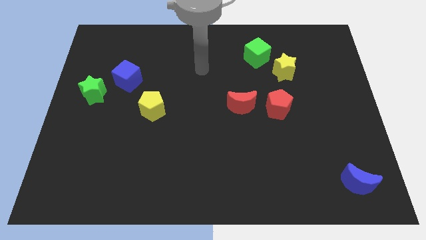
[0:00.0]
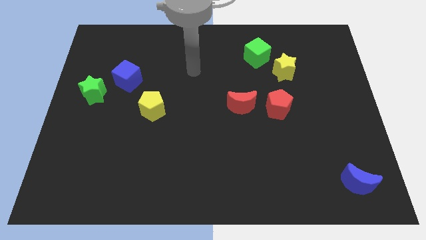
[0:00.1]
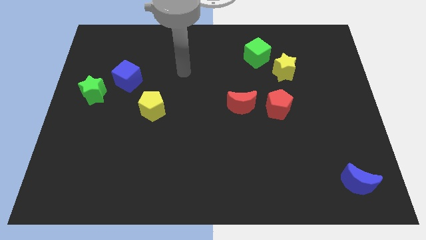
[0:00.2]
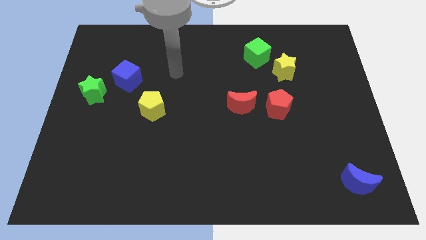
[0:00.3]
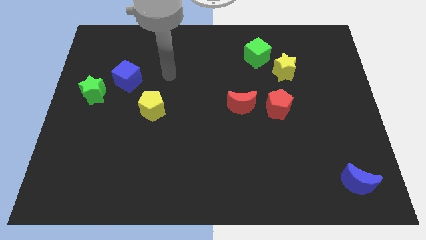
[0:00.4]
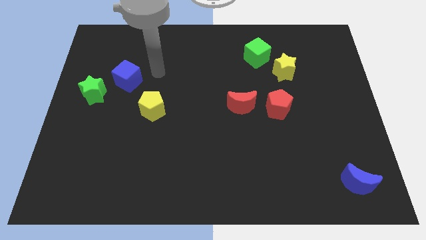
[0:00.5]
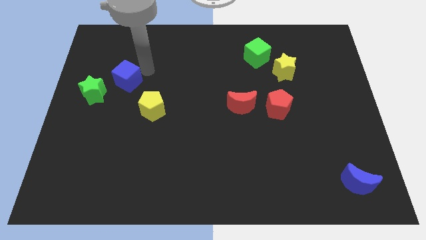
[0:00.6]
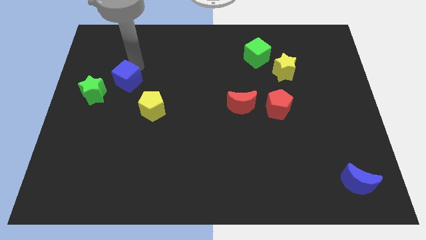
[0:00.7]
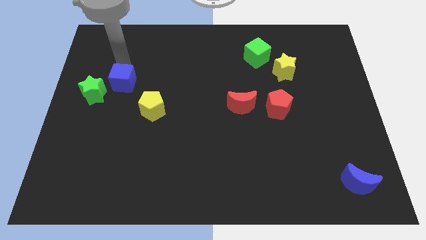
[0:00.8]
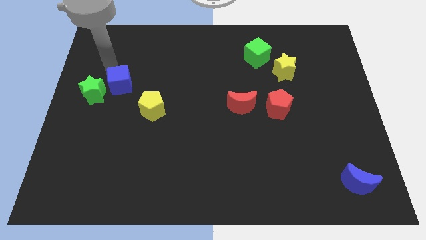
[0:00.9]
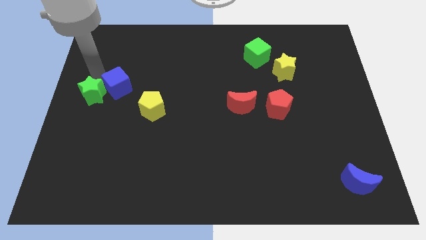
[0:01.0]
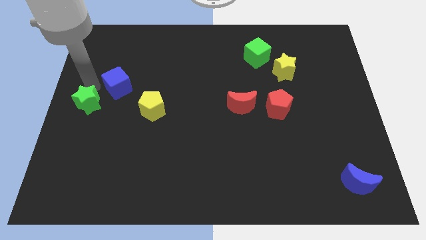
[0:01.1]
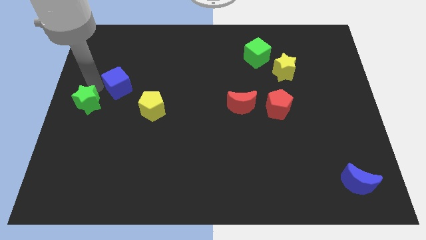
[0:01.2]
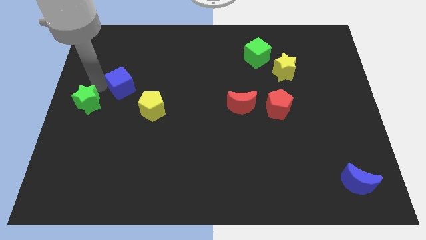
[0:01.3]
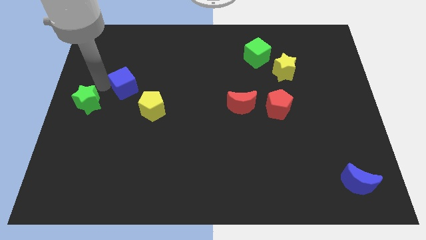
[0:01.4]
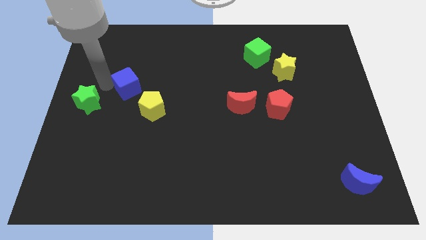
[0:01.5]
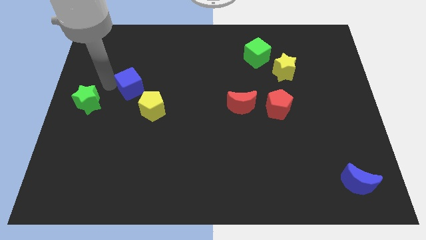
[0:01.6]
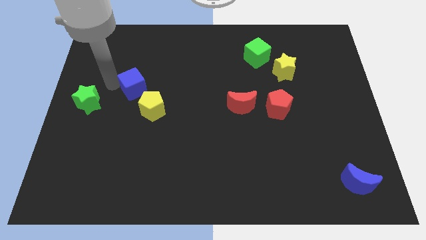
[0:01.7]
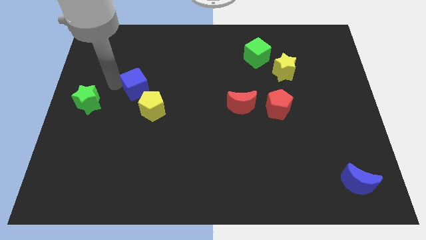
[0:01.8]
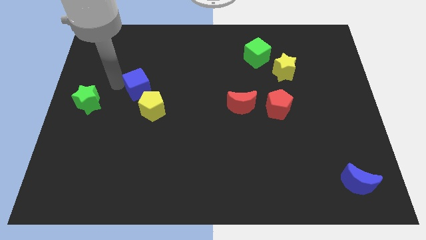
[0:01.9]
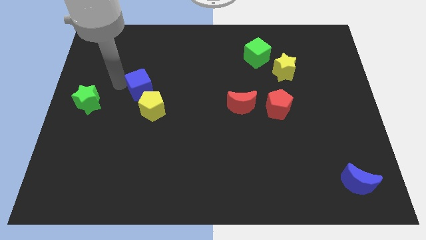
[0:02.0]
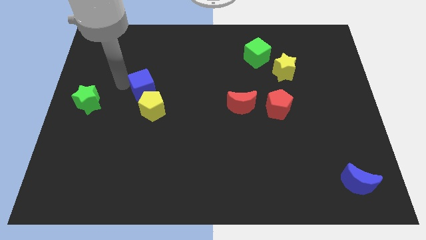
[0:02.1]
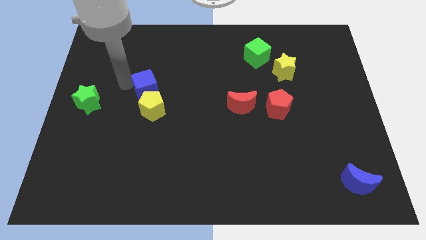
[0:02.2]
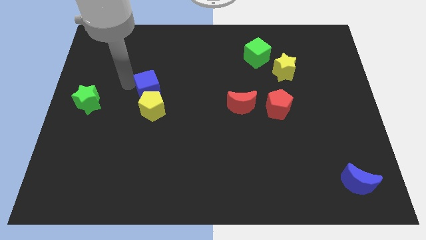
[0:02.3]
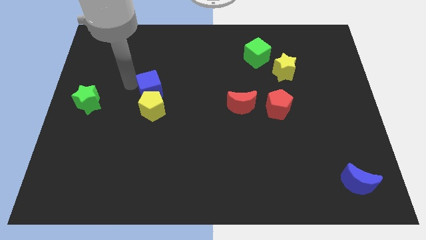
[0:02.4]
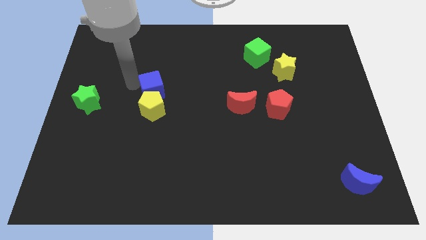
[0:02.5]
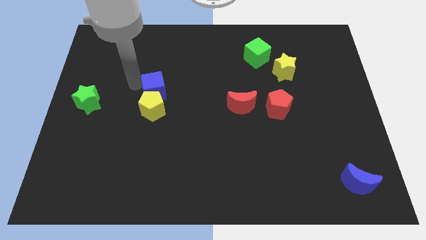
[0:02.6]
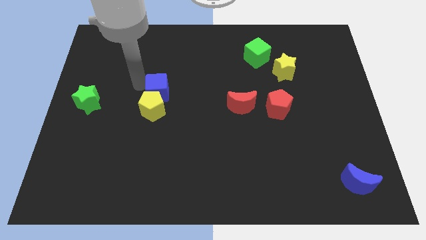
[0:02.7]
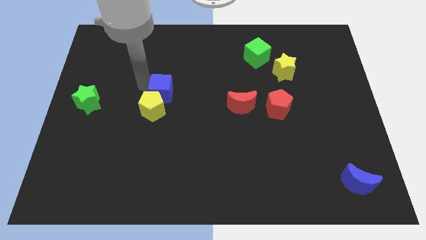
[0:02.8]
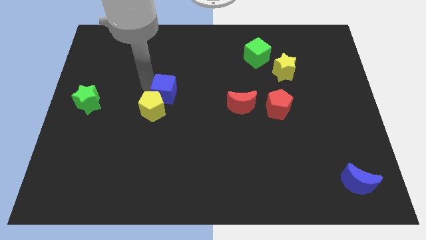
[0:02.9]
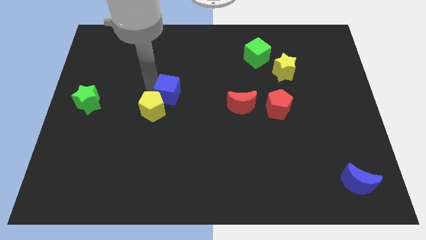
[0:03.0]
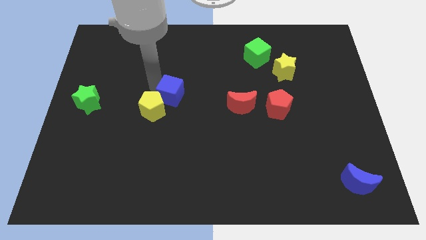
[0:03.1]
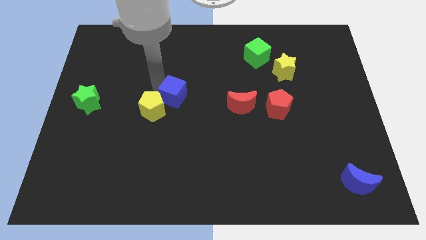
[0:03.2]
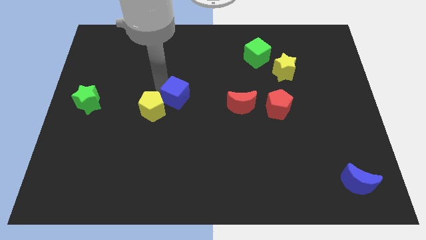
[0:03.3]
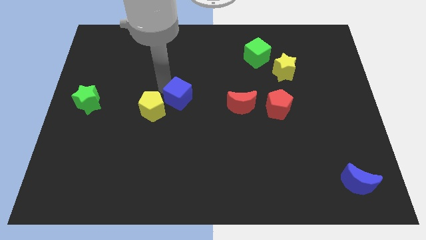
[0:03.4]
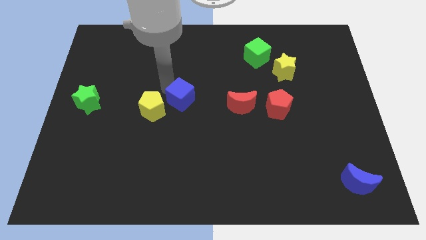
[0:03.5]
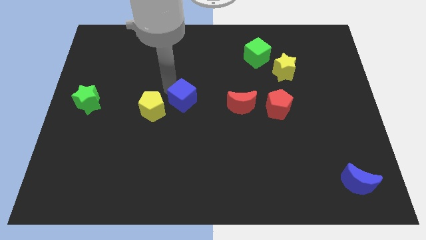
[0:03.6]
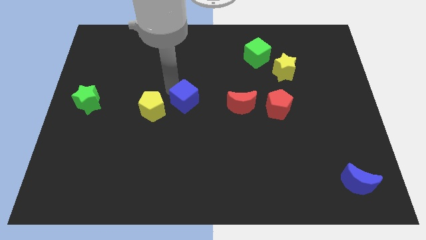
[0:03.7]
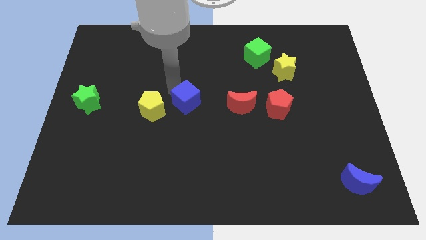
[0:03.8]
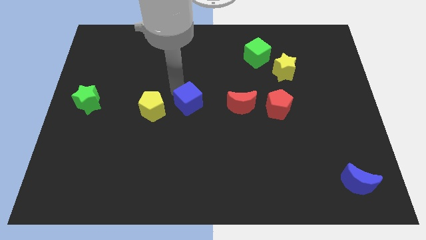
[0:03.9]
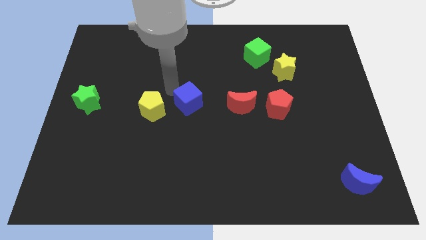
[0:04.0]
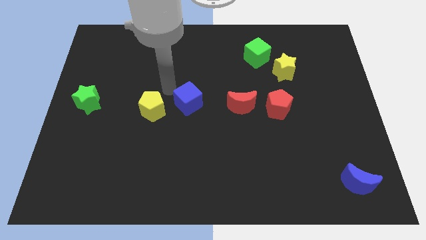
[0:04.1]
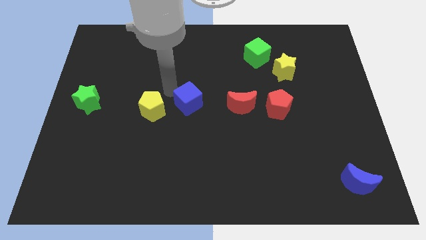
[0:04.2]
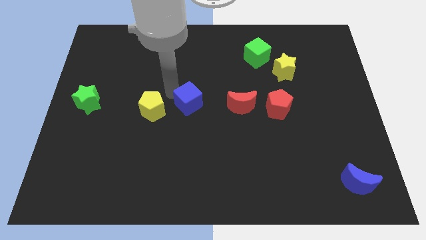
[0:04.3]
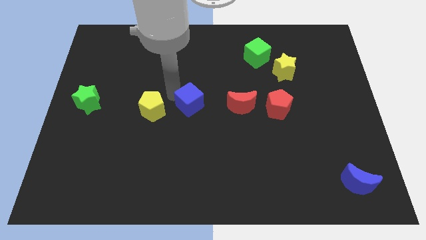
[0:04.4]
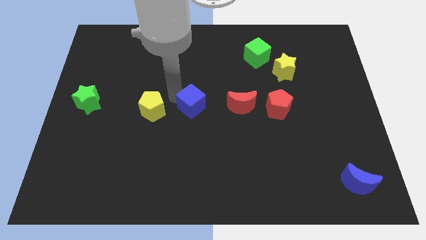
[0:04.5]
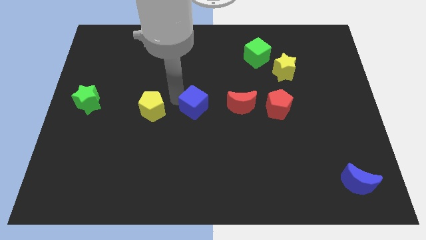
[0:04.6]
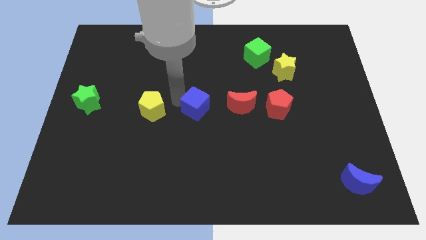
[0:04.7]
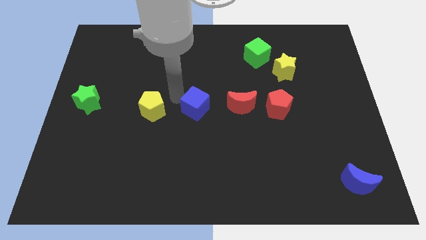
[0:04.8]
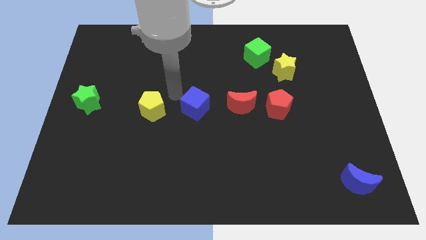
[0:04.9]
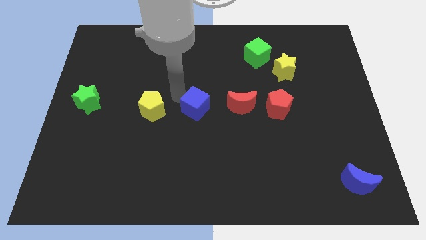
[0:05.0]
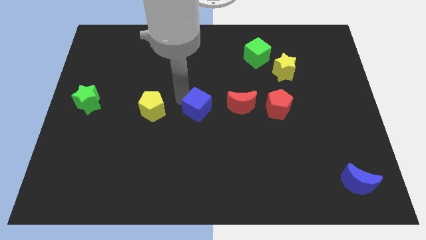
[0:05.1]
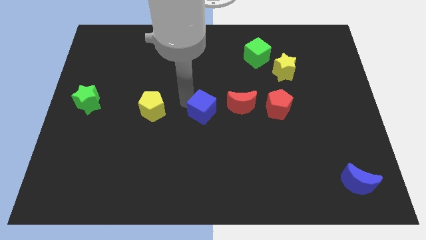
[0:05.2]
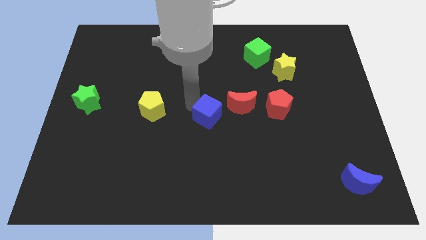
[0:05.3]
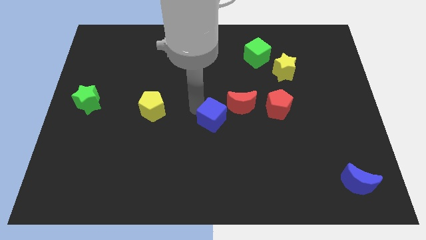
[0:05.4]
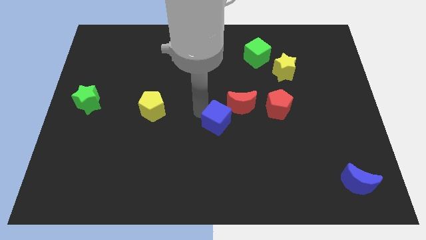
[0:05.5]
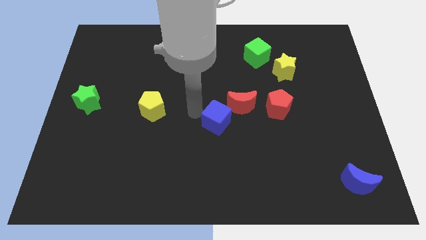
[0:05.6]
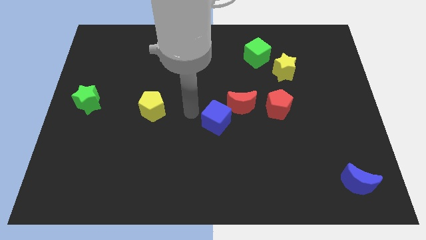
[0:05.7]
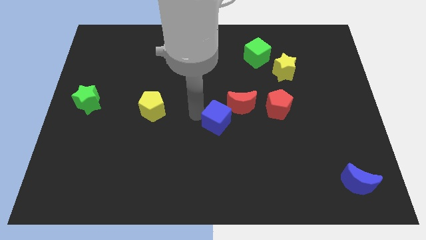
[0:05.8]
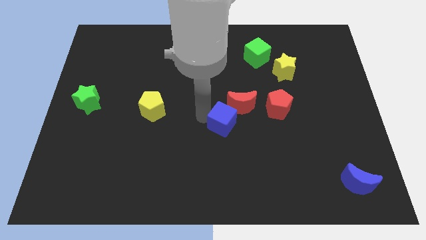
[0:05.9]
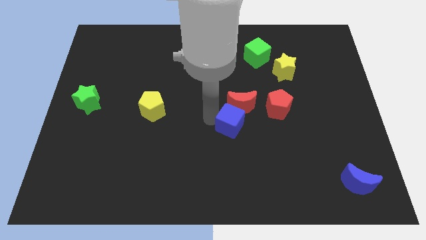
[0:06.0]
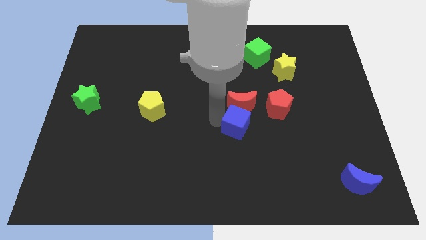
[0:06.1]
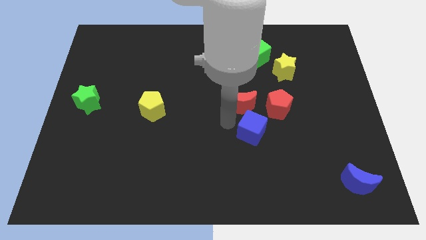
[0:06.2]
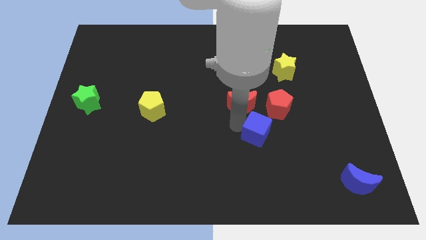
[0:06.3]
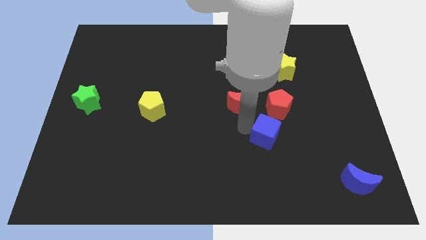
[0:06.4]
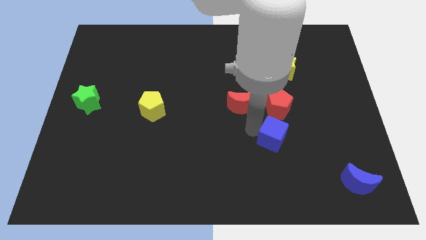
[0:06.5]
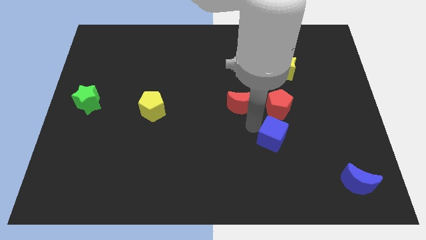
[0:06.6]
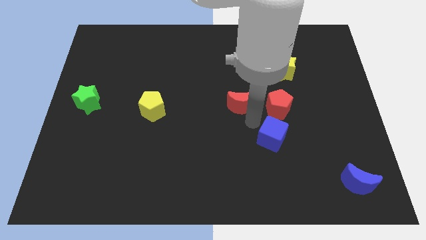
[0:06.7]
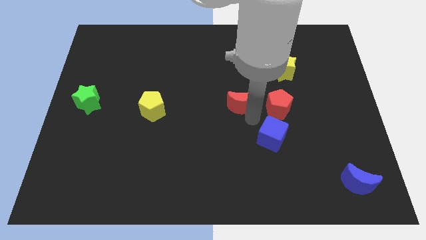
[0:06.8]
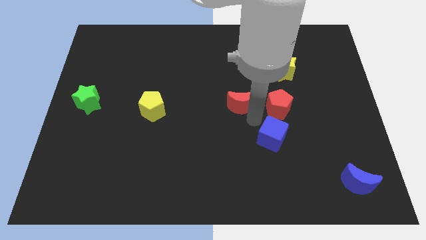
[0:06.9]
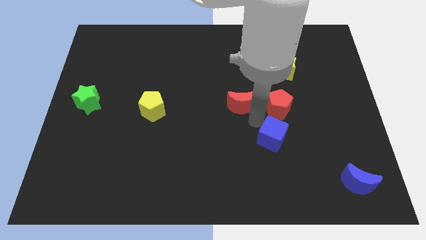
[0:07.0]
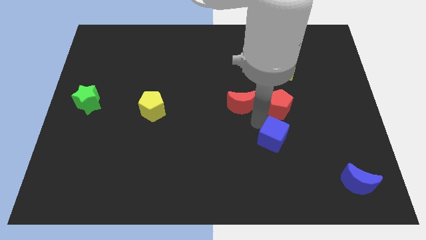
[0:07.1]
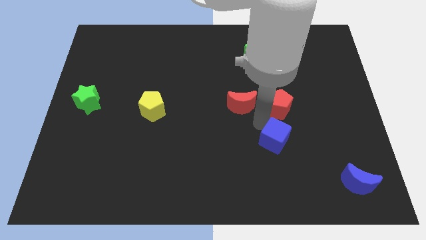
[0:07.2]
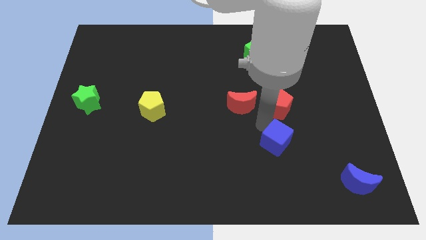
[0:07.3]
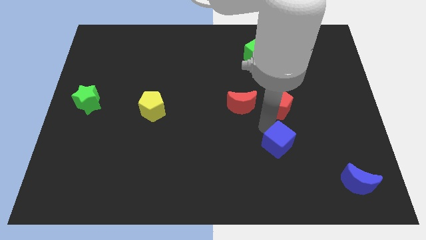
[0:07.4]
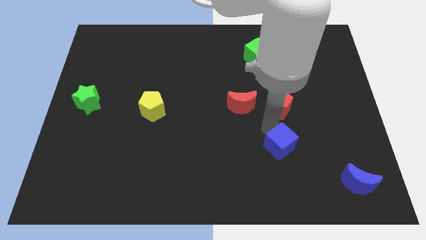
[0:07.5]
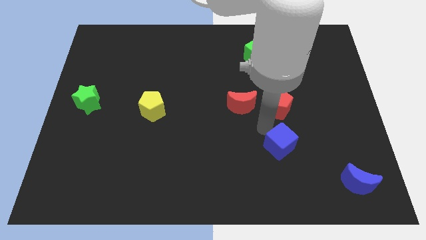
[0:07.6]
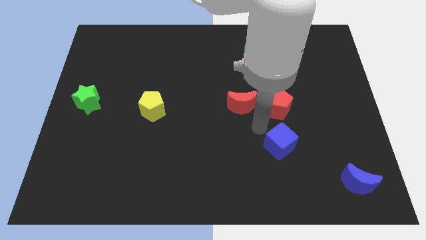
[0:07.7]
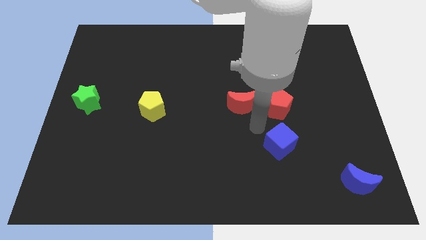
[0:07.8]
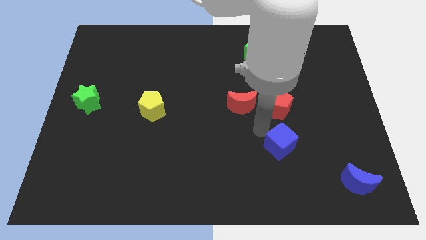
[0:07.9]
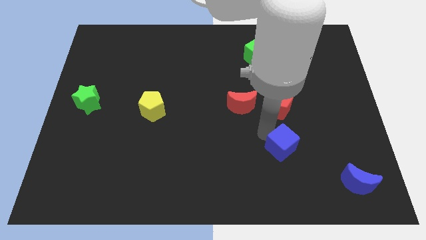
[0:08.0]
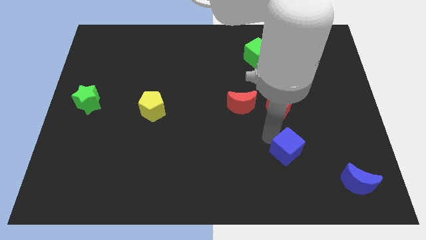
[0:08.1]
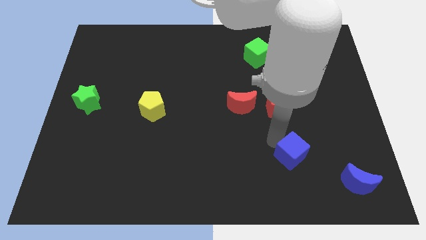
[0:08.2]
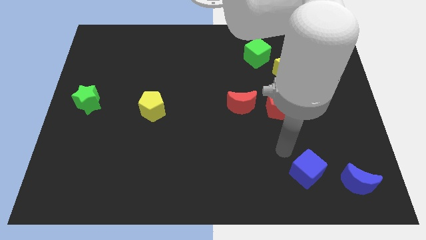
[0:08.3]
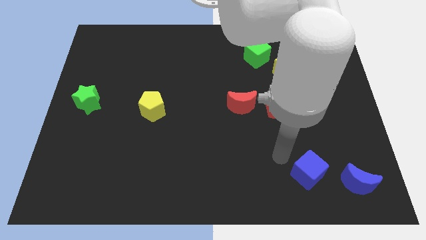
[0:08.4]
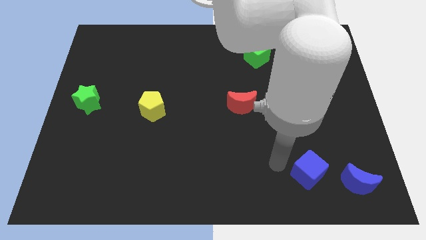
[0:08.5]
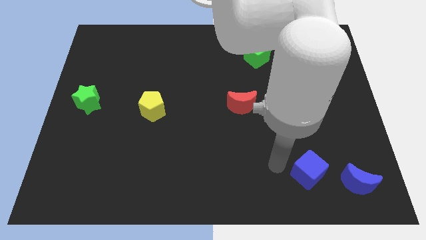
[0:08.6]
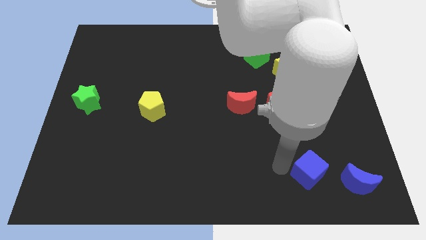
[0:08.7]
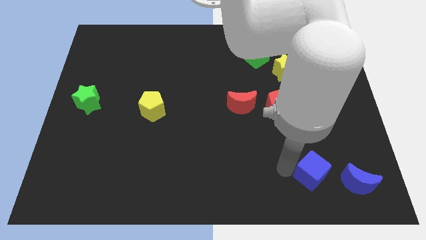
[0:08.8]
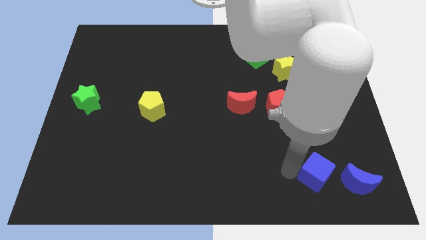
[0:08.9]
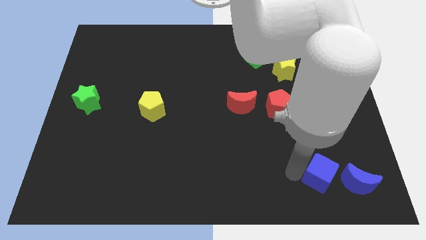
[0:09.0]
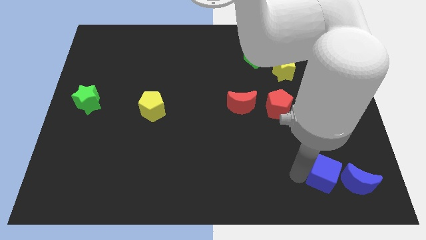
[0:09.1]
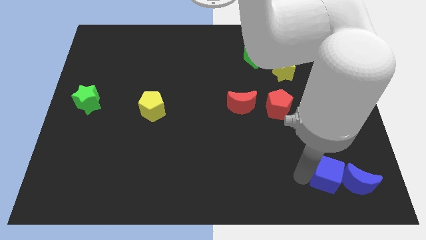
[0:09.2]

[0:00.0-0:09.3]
move the blue cube next to the blue moon
